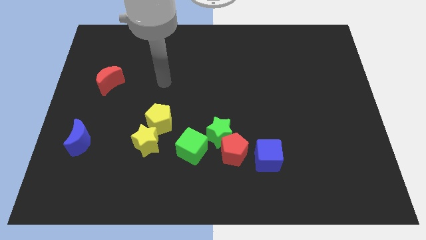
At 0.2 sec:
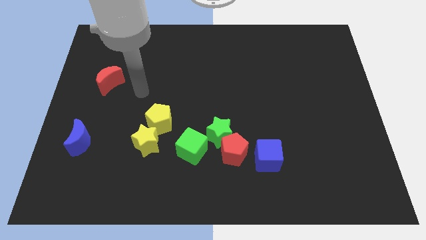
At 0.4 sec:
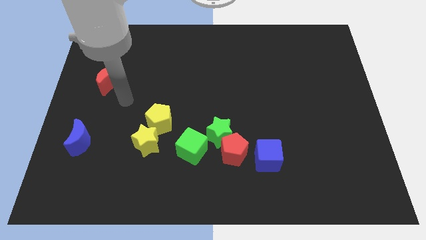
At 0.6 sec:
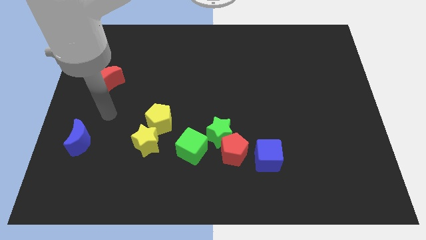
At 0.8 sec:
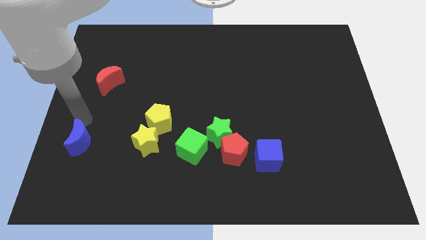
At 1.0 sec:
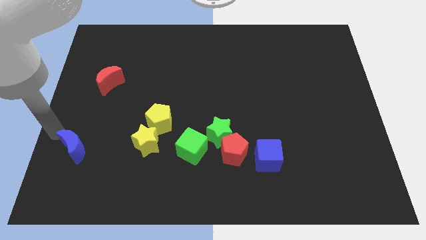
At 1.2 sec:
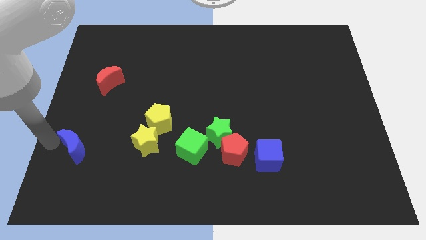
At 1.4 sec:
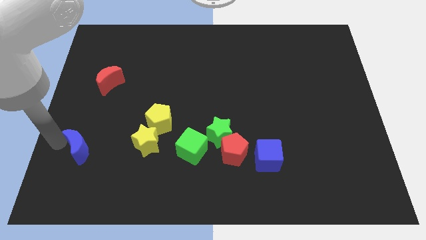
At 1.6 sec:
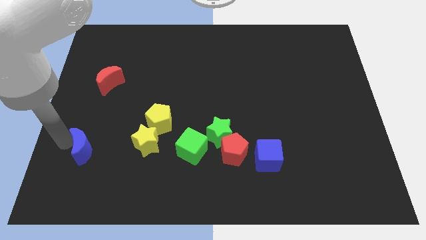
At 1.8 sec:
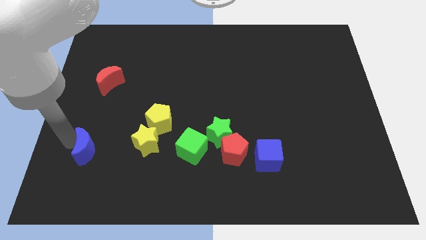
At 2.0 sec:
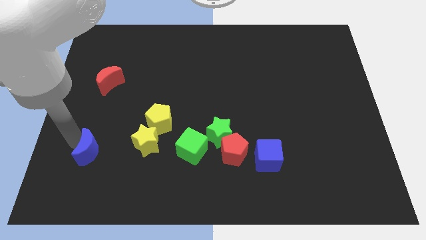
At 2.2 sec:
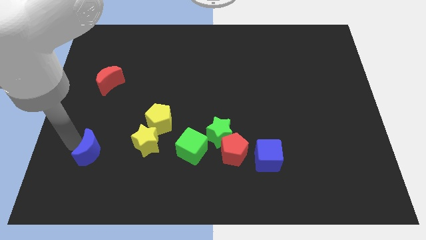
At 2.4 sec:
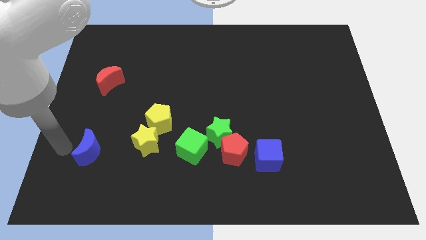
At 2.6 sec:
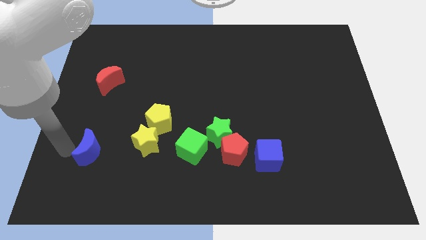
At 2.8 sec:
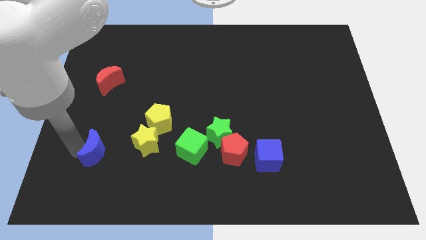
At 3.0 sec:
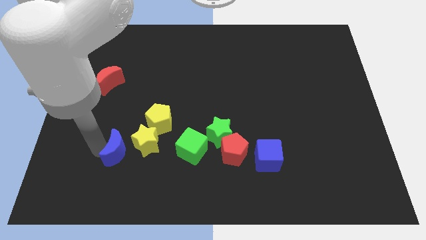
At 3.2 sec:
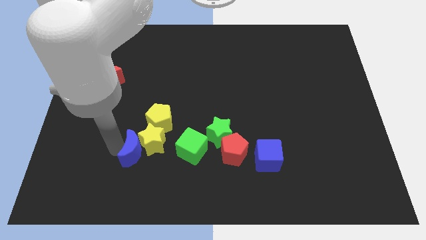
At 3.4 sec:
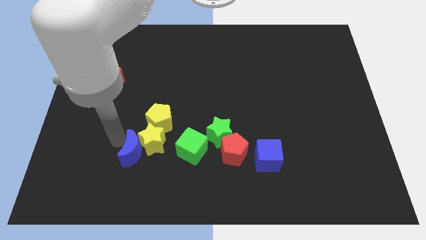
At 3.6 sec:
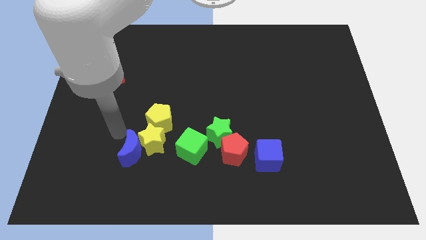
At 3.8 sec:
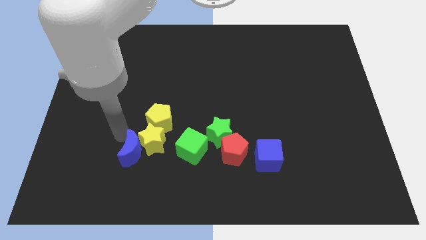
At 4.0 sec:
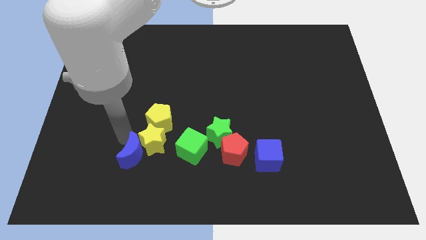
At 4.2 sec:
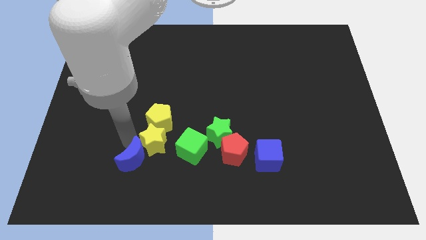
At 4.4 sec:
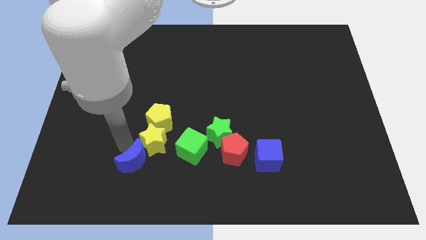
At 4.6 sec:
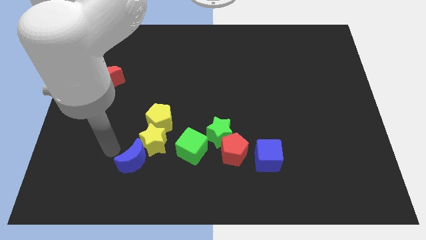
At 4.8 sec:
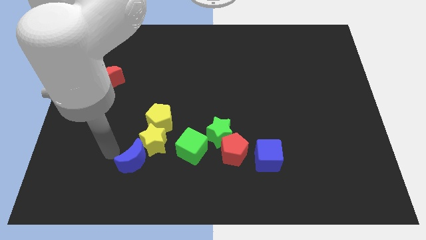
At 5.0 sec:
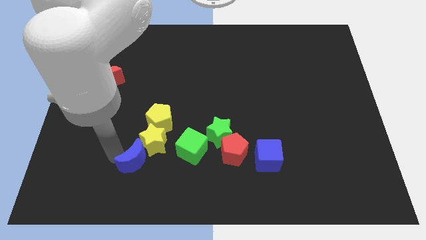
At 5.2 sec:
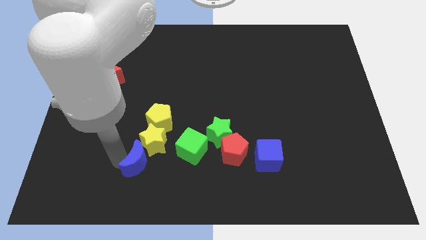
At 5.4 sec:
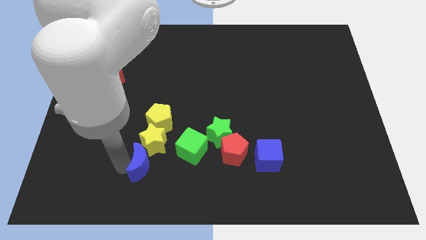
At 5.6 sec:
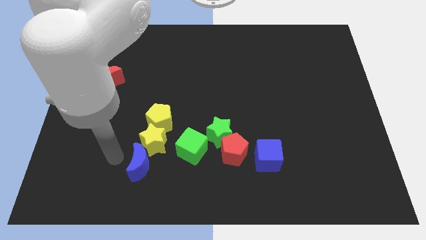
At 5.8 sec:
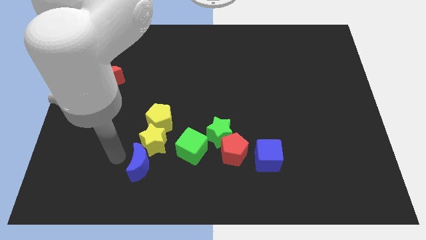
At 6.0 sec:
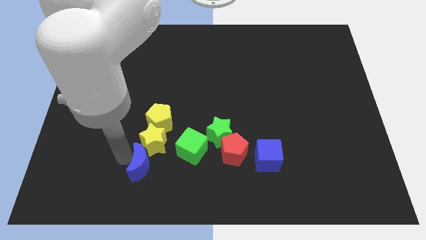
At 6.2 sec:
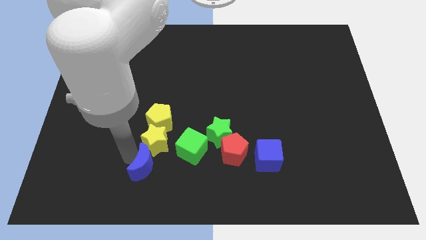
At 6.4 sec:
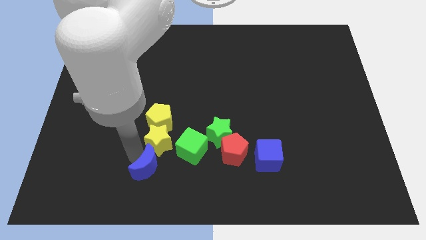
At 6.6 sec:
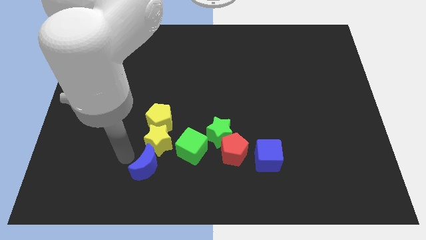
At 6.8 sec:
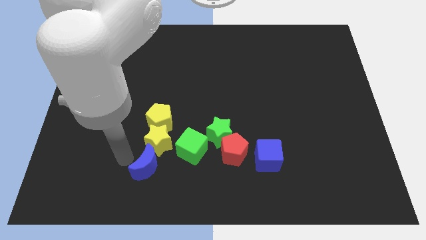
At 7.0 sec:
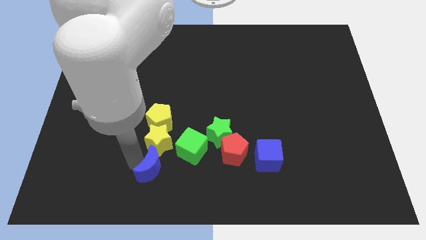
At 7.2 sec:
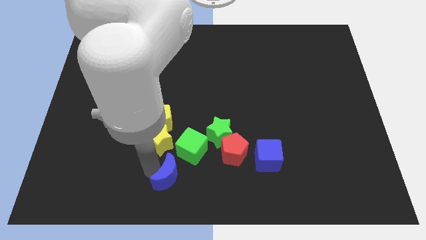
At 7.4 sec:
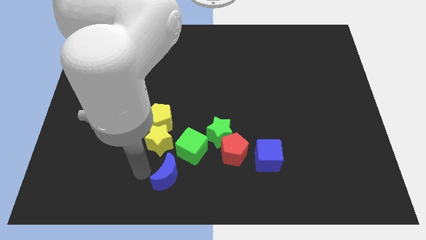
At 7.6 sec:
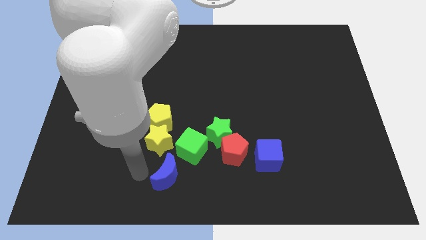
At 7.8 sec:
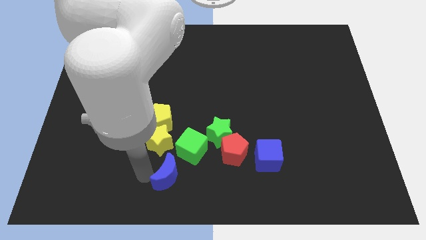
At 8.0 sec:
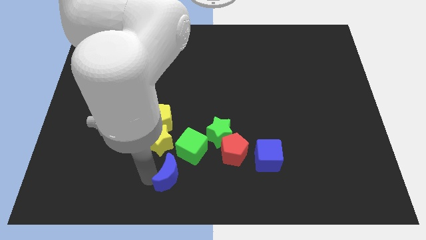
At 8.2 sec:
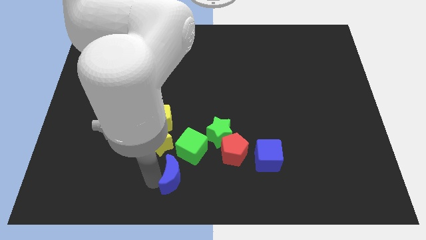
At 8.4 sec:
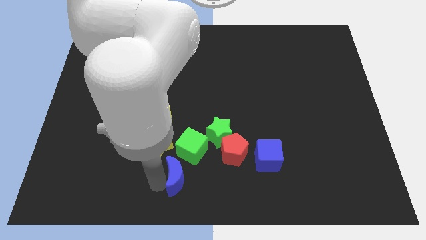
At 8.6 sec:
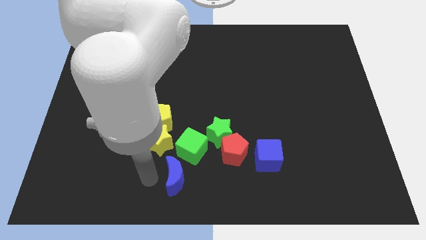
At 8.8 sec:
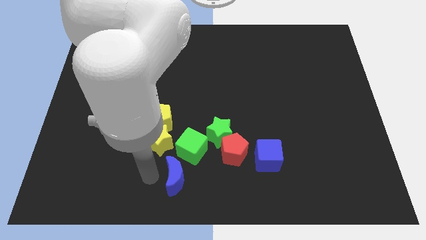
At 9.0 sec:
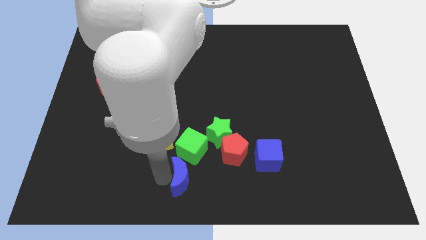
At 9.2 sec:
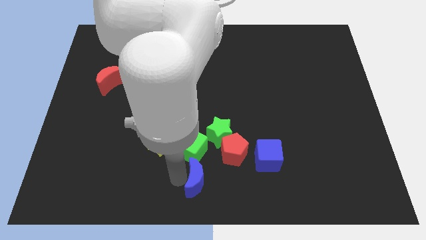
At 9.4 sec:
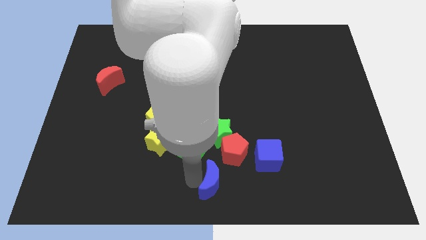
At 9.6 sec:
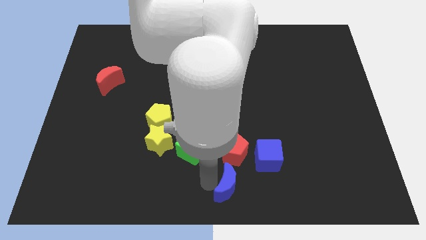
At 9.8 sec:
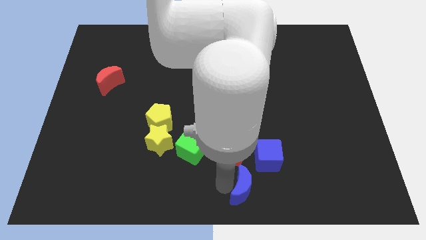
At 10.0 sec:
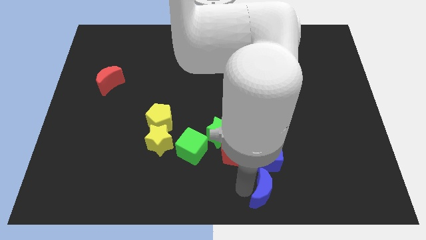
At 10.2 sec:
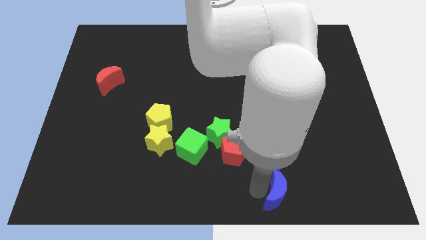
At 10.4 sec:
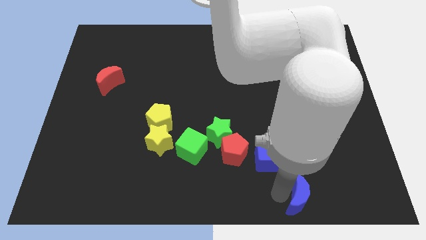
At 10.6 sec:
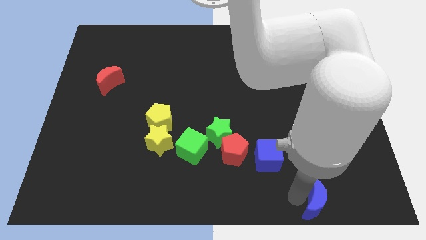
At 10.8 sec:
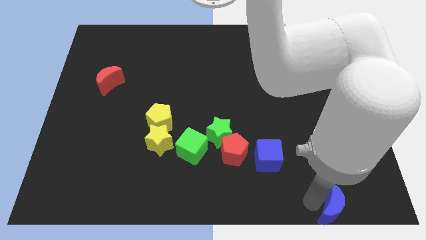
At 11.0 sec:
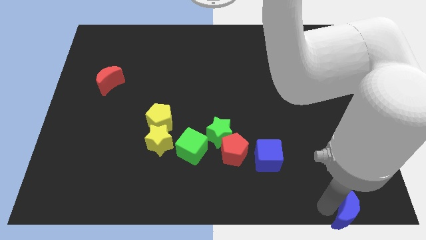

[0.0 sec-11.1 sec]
slide the blue moon to the bottom right corner

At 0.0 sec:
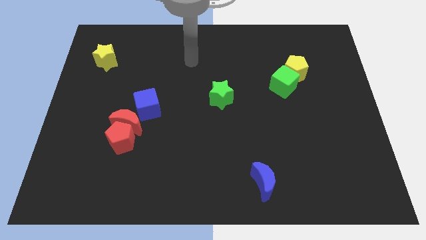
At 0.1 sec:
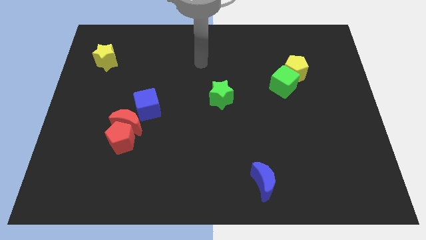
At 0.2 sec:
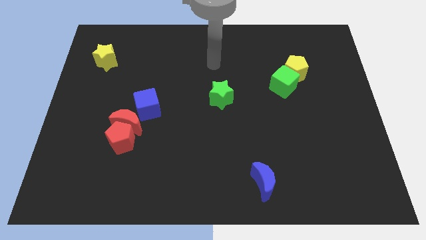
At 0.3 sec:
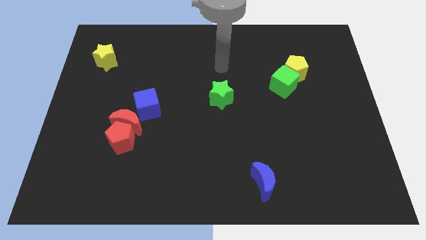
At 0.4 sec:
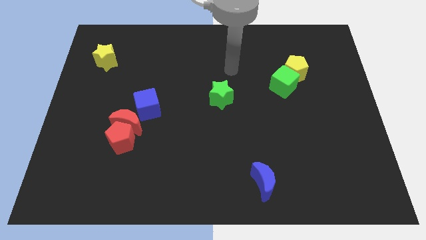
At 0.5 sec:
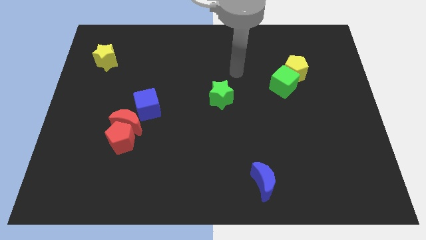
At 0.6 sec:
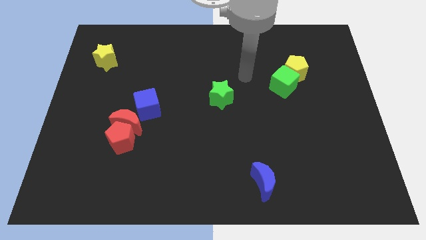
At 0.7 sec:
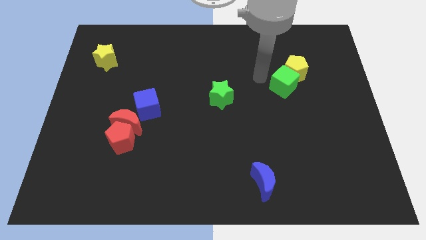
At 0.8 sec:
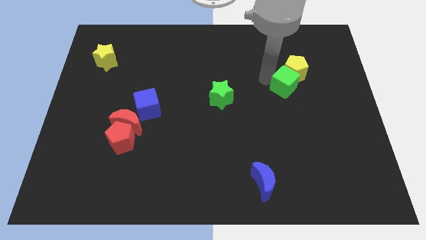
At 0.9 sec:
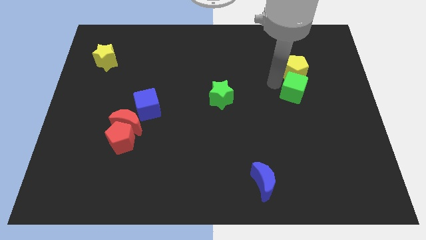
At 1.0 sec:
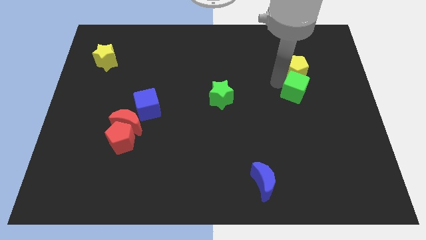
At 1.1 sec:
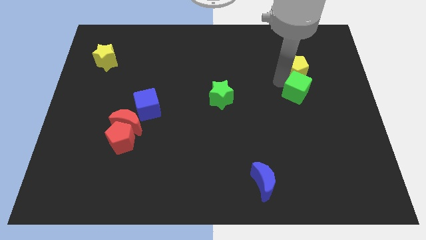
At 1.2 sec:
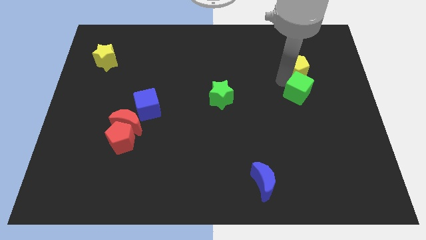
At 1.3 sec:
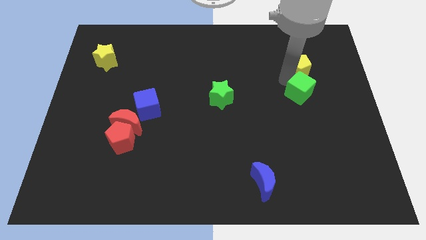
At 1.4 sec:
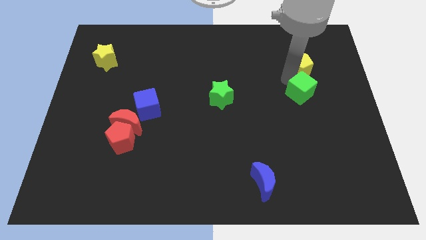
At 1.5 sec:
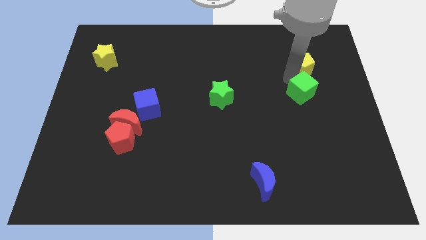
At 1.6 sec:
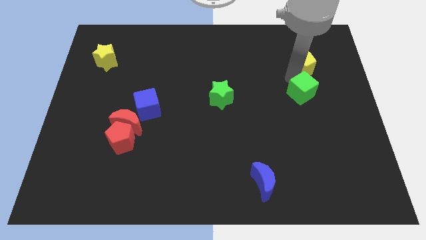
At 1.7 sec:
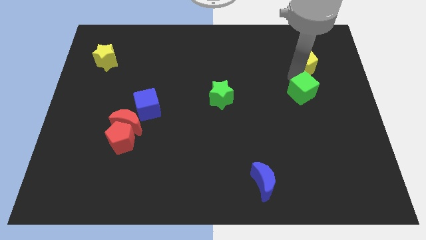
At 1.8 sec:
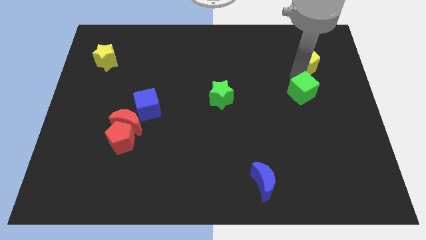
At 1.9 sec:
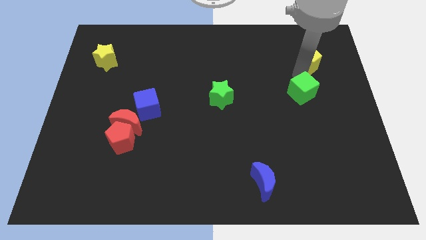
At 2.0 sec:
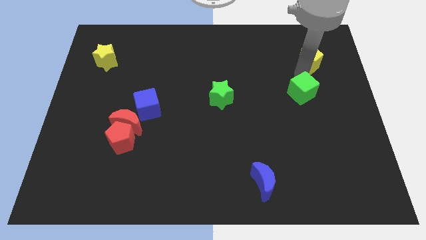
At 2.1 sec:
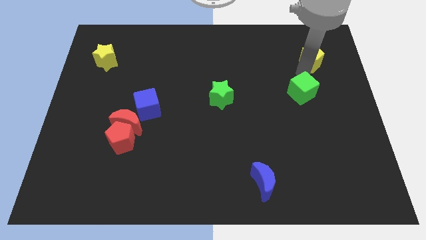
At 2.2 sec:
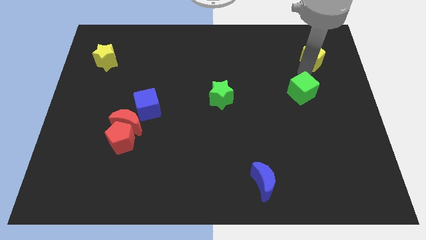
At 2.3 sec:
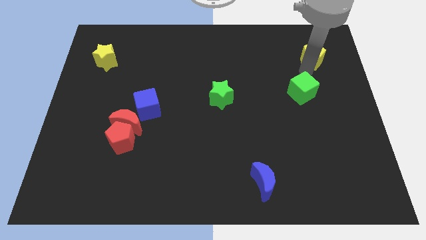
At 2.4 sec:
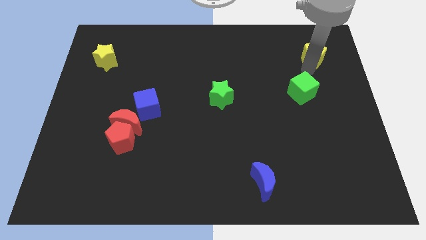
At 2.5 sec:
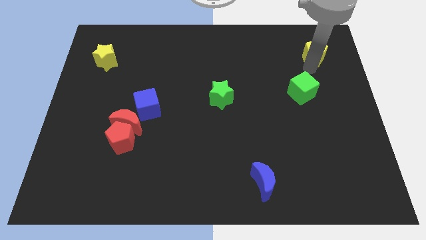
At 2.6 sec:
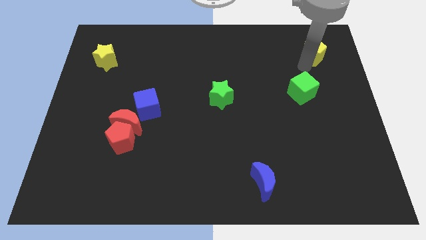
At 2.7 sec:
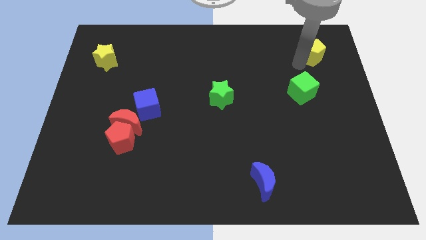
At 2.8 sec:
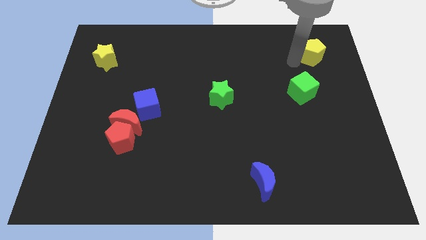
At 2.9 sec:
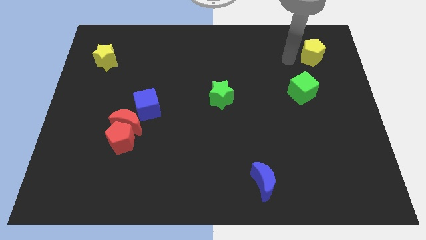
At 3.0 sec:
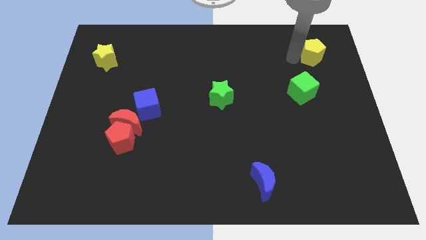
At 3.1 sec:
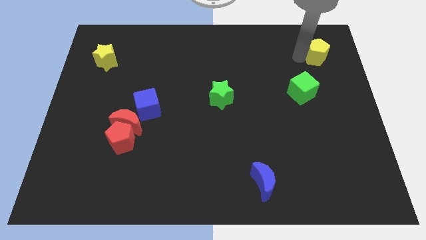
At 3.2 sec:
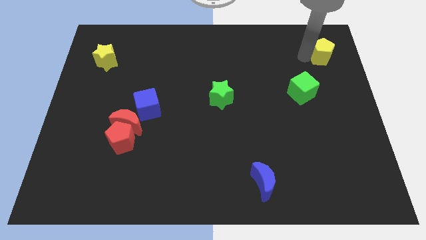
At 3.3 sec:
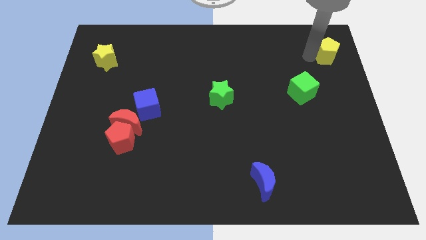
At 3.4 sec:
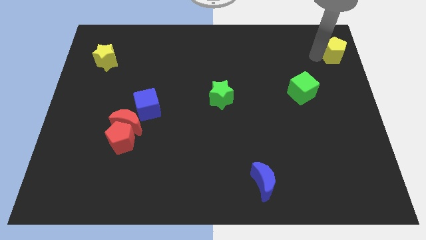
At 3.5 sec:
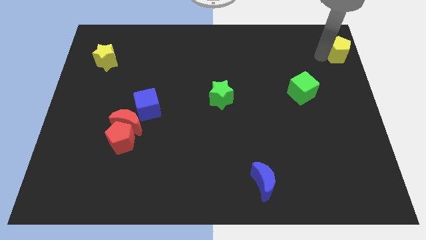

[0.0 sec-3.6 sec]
slide the yellow pentagon to the upper right corner
